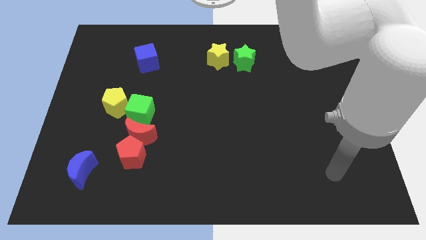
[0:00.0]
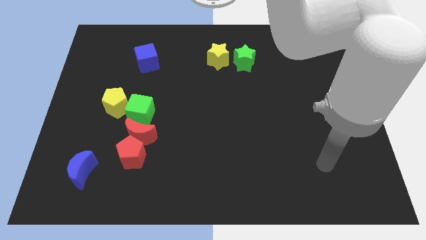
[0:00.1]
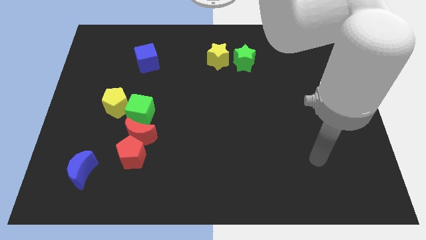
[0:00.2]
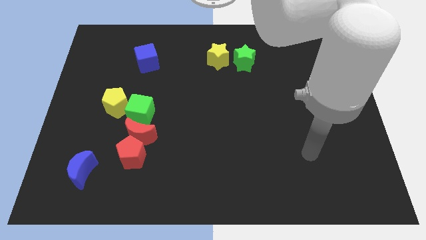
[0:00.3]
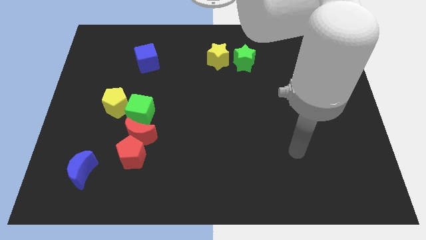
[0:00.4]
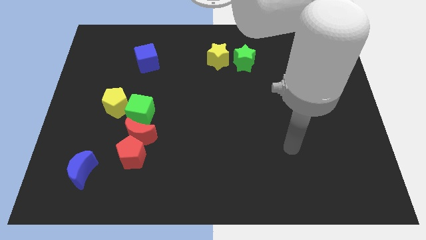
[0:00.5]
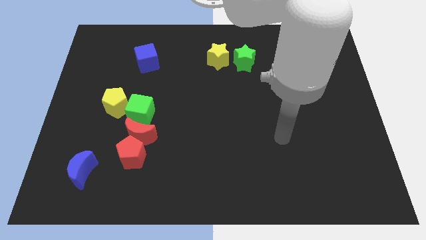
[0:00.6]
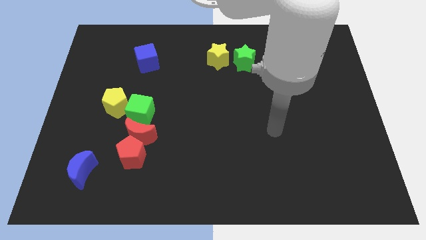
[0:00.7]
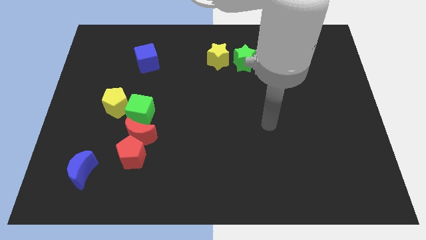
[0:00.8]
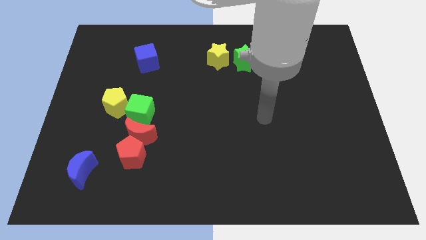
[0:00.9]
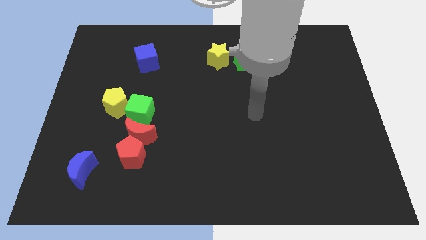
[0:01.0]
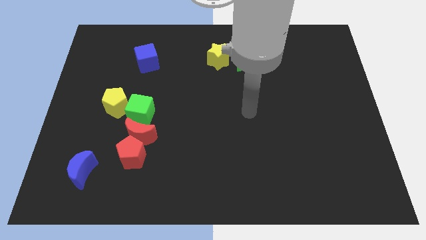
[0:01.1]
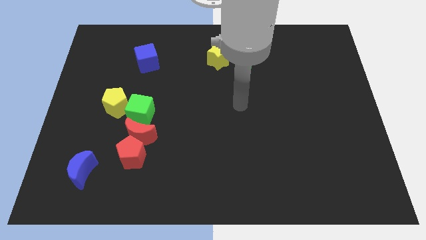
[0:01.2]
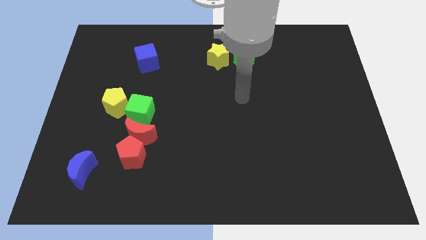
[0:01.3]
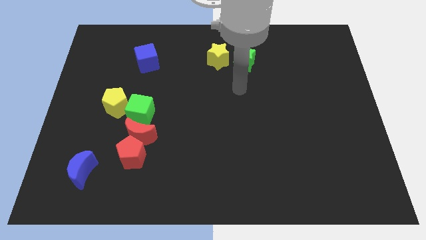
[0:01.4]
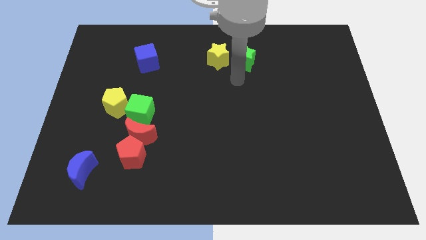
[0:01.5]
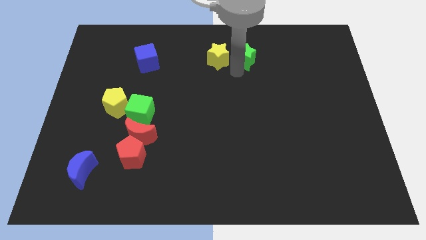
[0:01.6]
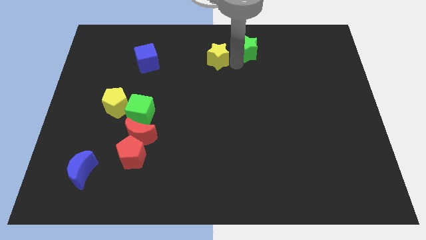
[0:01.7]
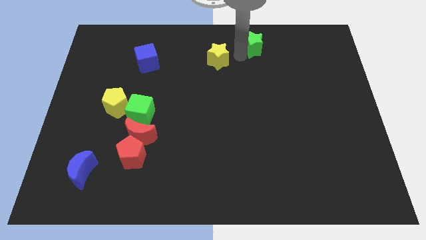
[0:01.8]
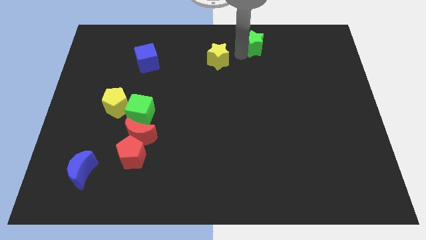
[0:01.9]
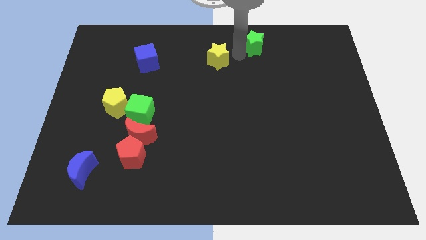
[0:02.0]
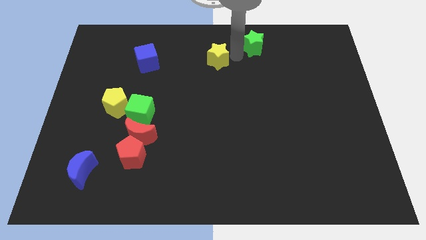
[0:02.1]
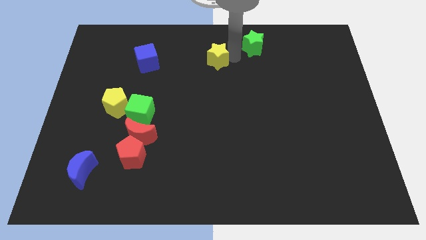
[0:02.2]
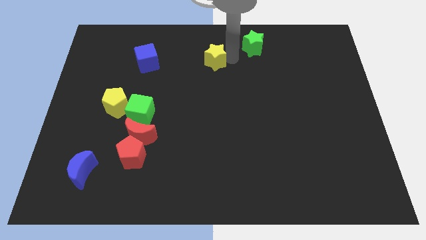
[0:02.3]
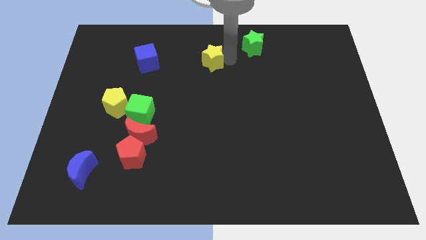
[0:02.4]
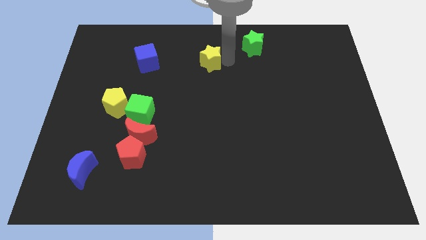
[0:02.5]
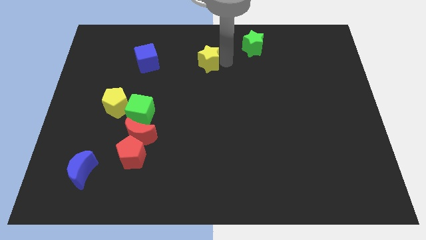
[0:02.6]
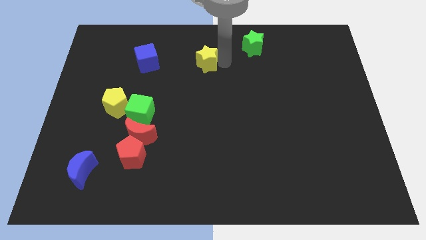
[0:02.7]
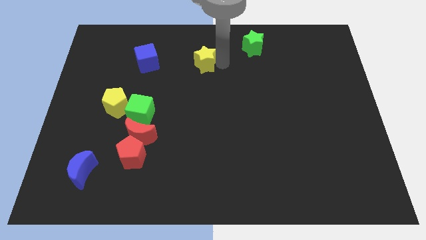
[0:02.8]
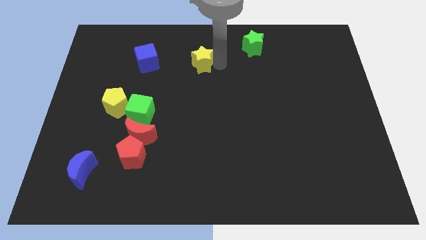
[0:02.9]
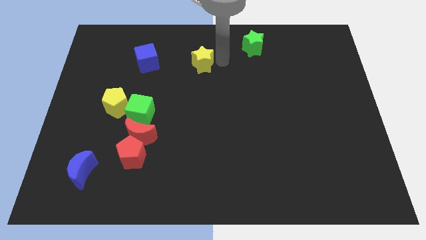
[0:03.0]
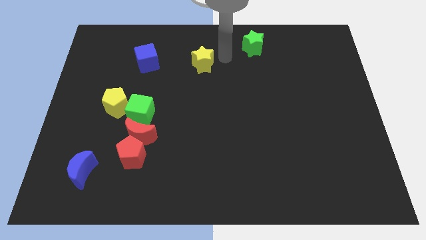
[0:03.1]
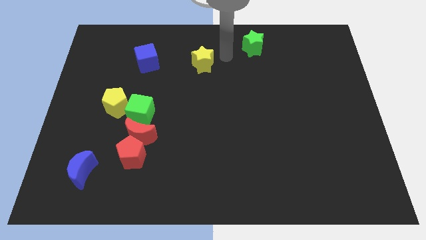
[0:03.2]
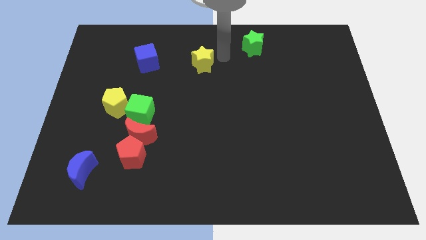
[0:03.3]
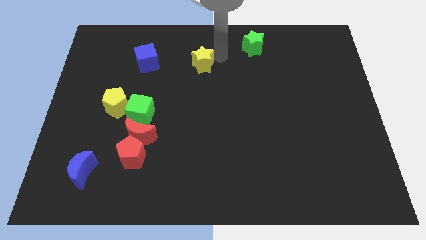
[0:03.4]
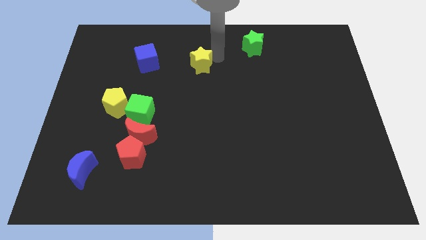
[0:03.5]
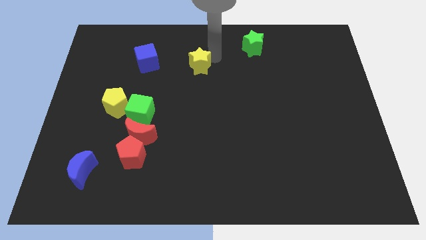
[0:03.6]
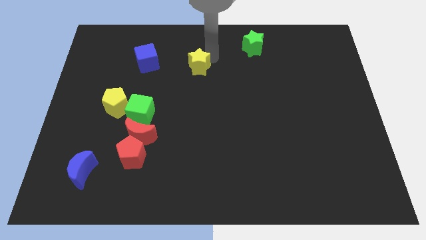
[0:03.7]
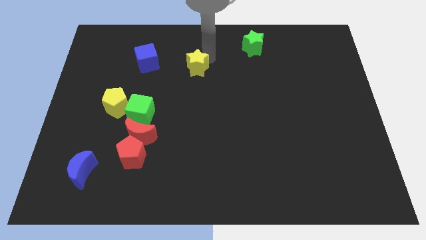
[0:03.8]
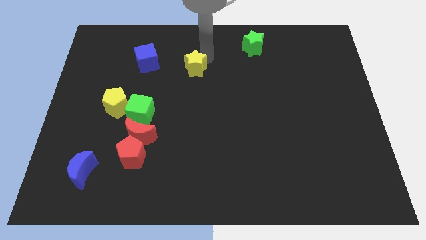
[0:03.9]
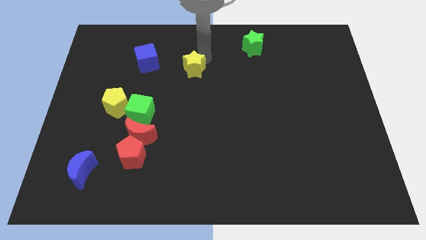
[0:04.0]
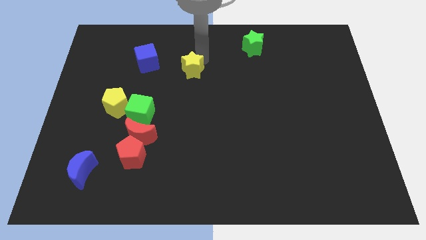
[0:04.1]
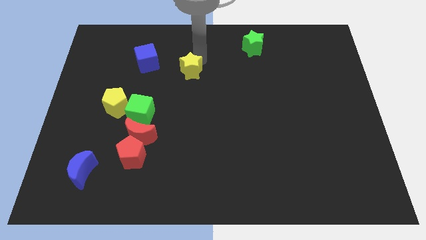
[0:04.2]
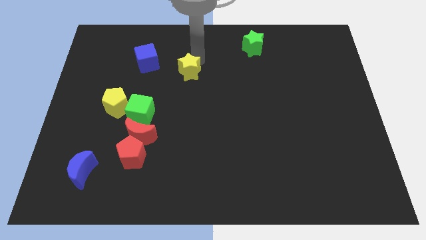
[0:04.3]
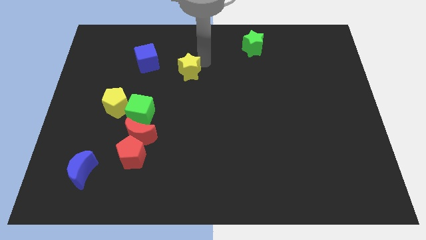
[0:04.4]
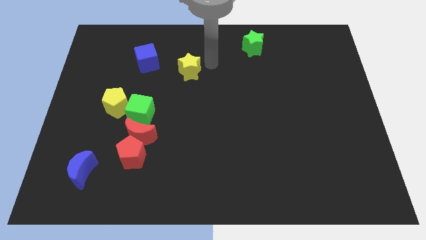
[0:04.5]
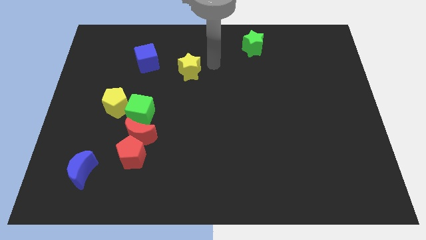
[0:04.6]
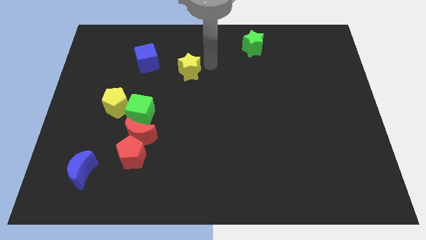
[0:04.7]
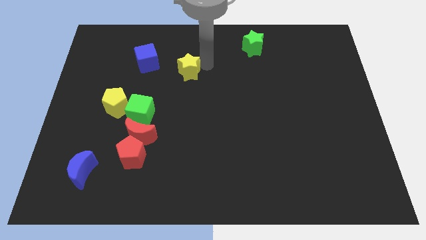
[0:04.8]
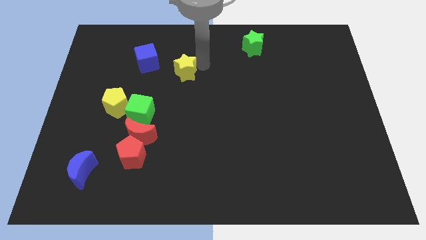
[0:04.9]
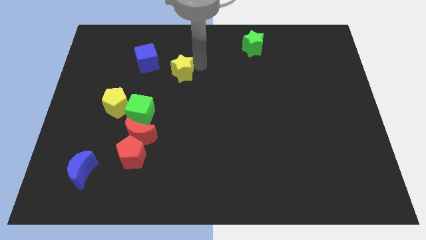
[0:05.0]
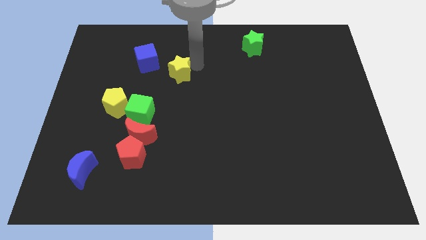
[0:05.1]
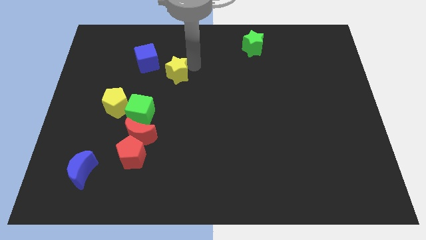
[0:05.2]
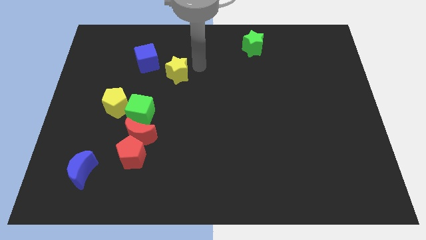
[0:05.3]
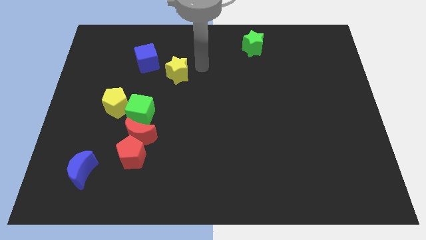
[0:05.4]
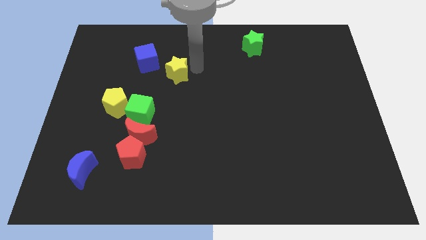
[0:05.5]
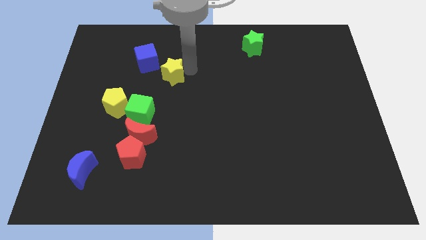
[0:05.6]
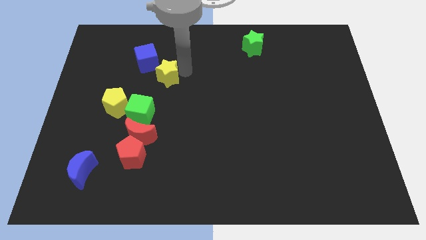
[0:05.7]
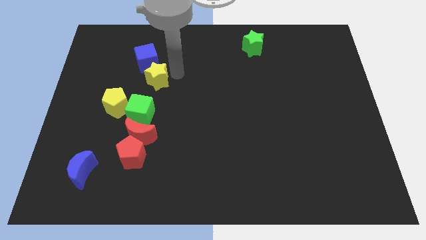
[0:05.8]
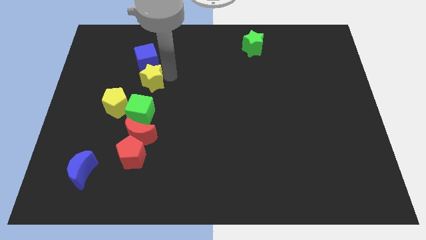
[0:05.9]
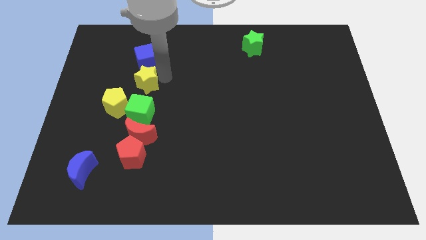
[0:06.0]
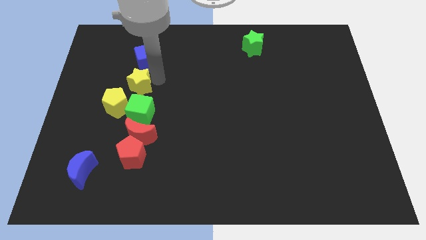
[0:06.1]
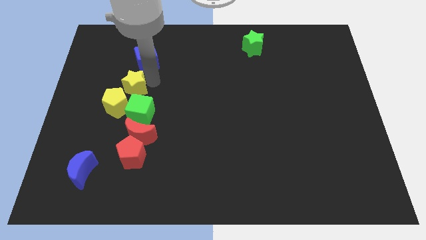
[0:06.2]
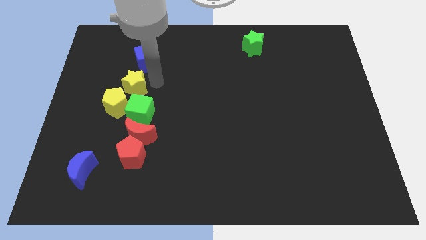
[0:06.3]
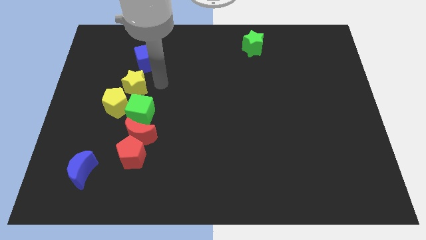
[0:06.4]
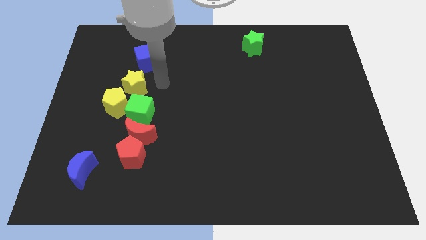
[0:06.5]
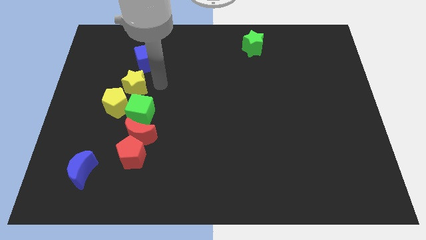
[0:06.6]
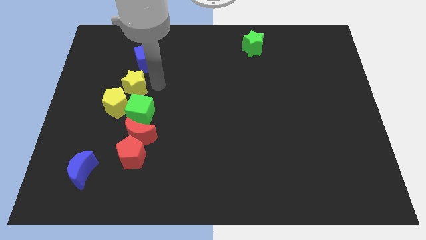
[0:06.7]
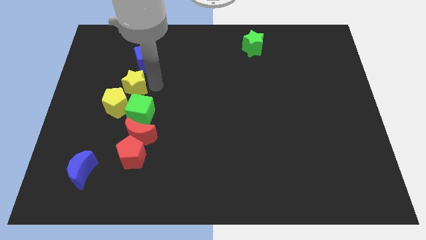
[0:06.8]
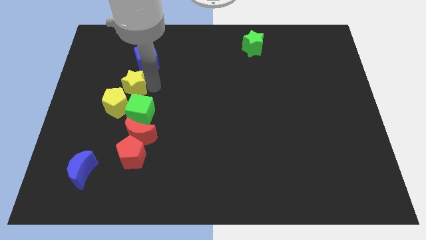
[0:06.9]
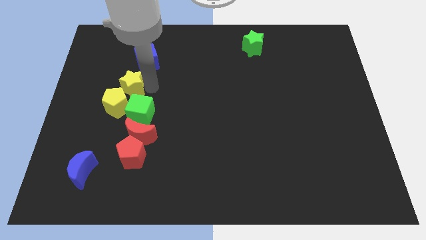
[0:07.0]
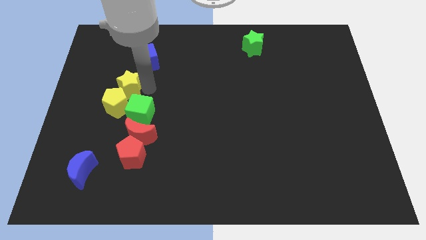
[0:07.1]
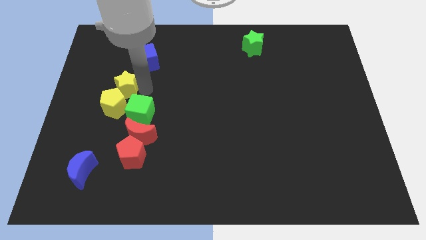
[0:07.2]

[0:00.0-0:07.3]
move the yellow star down and to the left diagonally

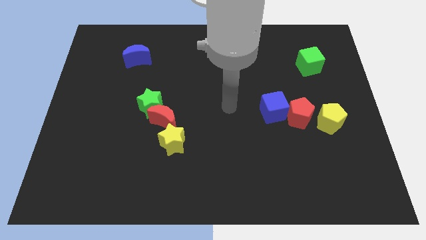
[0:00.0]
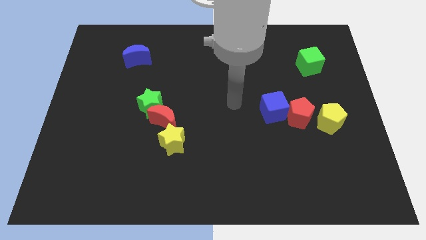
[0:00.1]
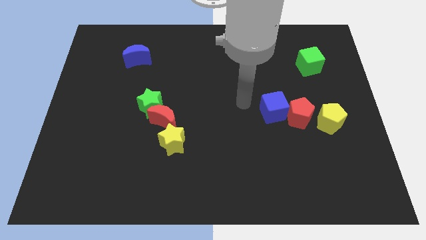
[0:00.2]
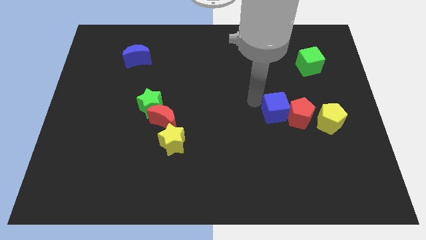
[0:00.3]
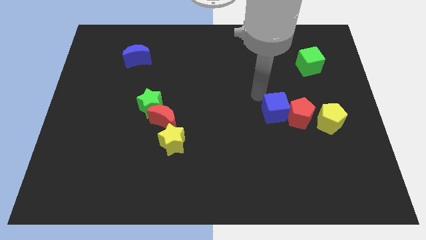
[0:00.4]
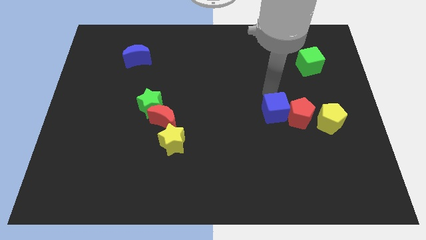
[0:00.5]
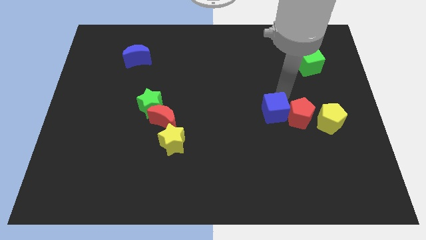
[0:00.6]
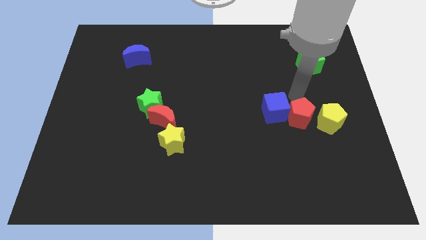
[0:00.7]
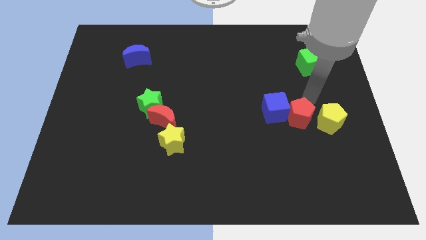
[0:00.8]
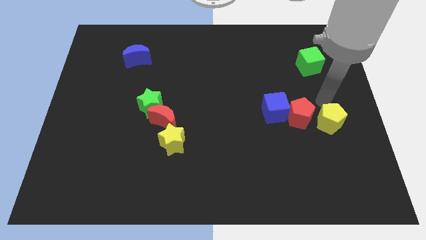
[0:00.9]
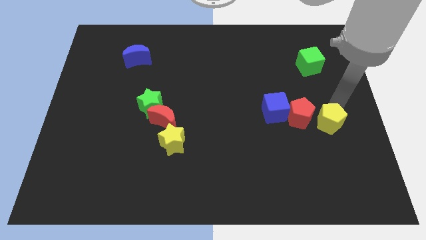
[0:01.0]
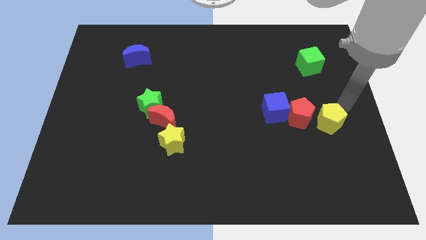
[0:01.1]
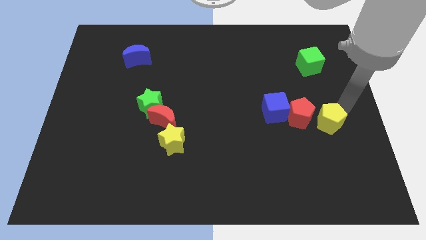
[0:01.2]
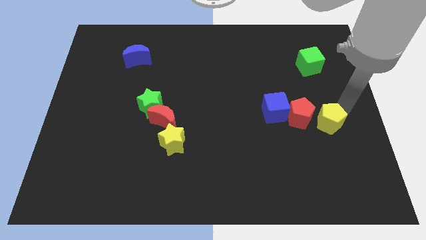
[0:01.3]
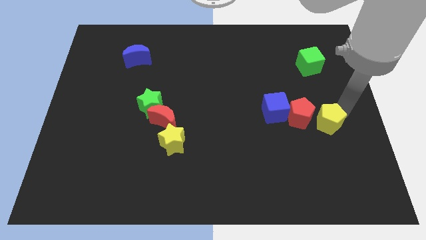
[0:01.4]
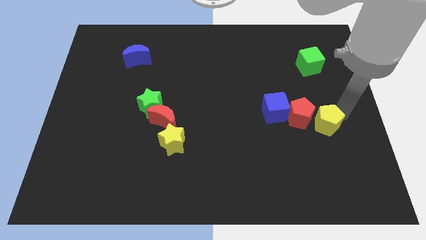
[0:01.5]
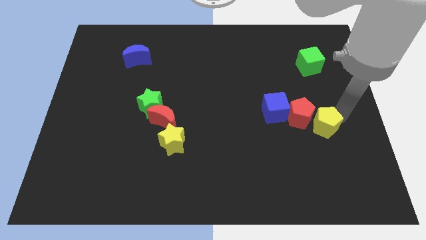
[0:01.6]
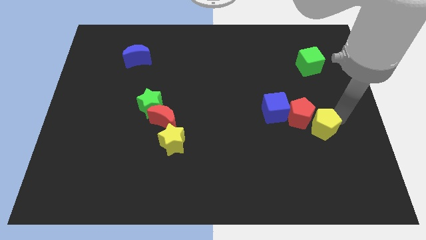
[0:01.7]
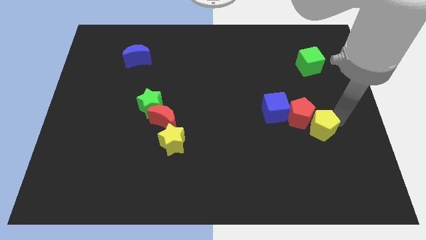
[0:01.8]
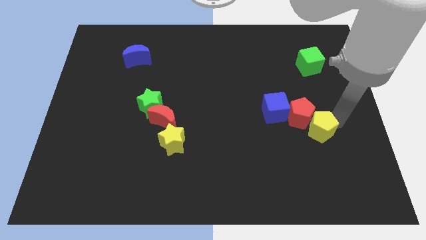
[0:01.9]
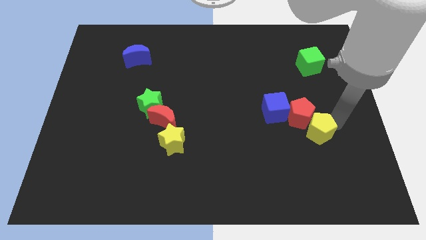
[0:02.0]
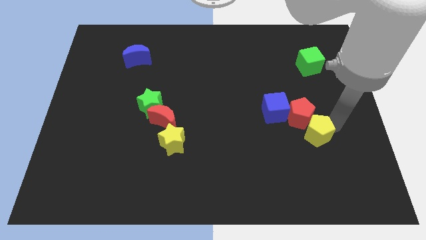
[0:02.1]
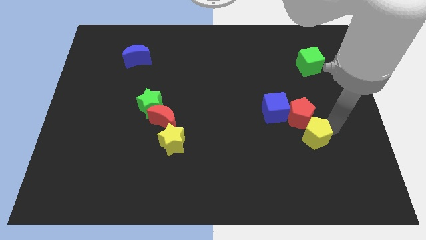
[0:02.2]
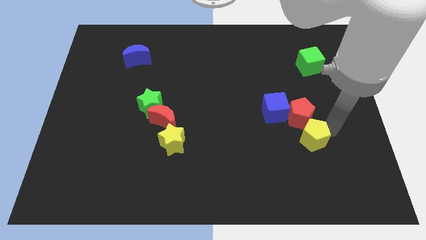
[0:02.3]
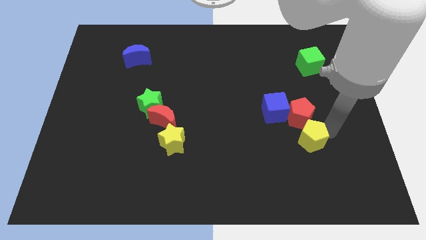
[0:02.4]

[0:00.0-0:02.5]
push the yellow pentagon down and to the left slightly
